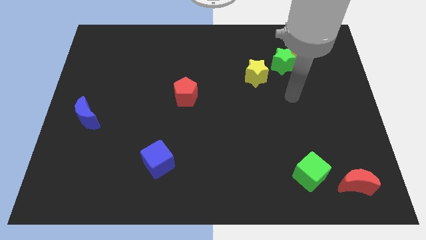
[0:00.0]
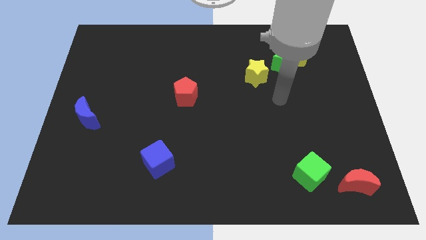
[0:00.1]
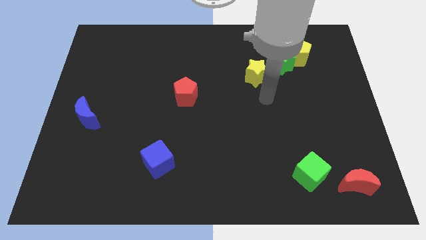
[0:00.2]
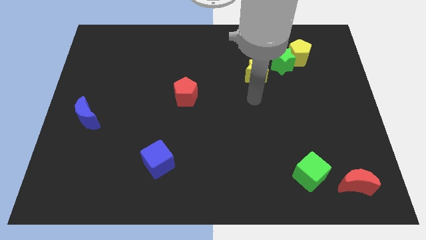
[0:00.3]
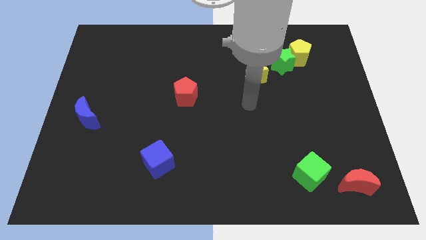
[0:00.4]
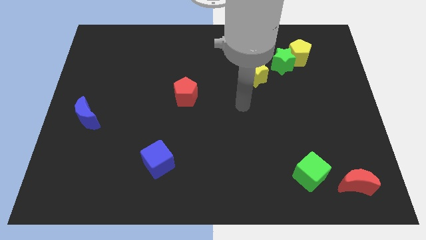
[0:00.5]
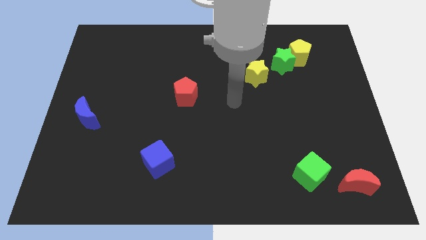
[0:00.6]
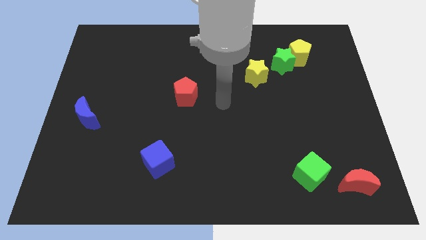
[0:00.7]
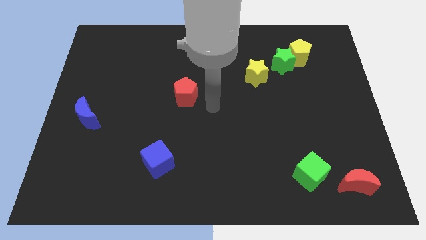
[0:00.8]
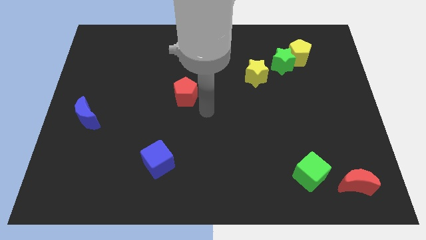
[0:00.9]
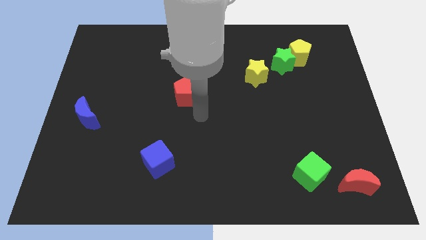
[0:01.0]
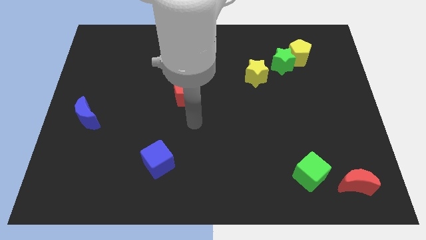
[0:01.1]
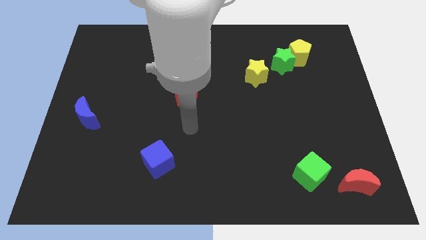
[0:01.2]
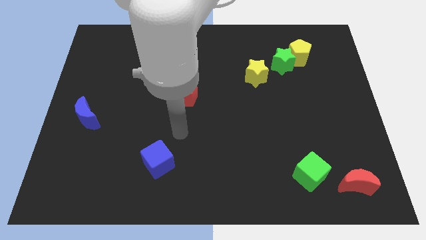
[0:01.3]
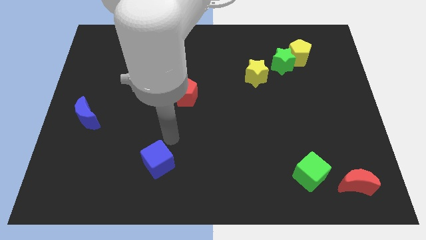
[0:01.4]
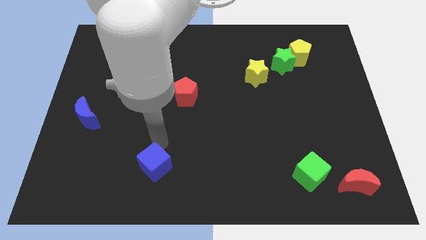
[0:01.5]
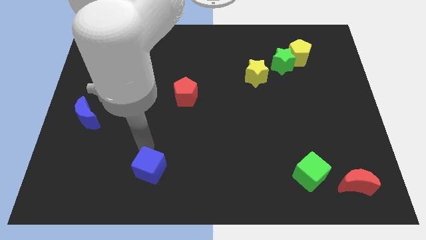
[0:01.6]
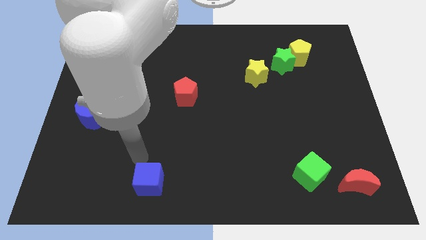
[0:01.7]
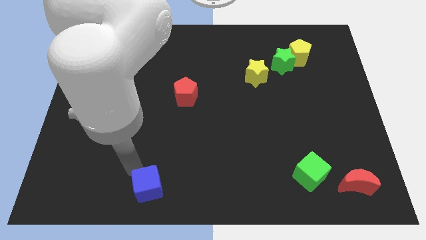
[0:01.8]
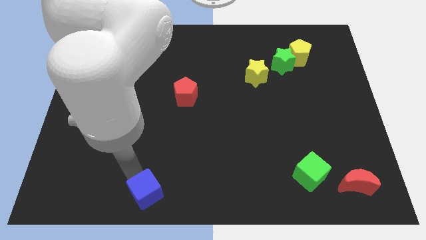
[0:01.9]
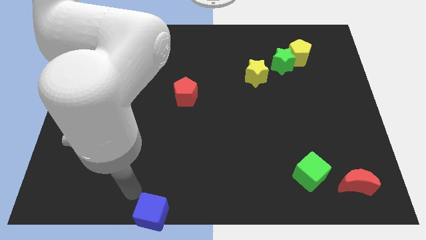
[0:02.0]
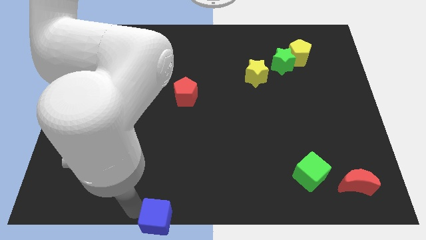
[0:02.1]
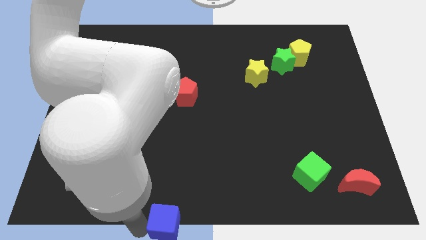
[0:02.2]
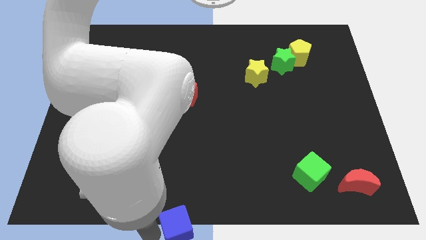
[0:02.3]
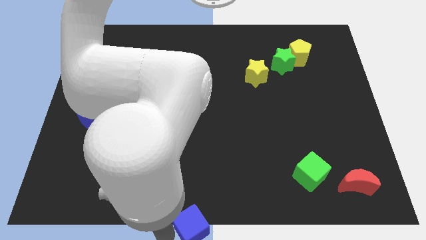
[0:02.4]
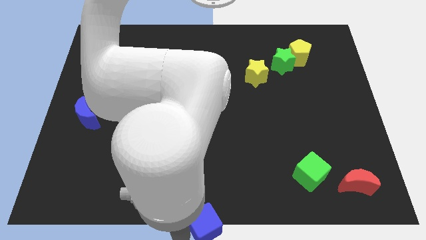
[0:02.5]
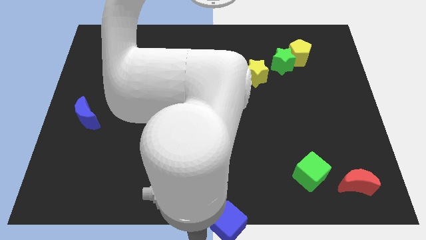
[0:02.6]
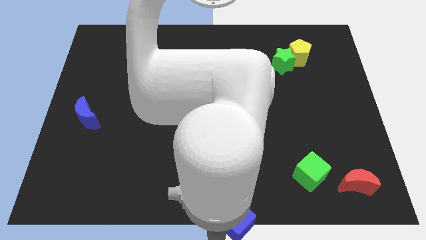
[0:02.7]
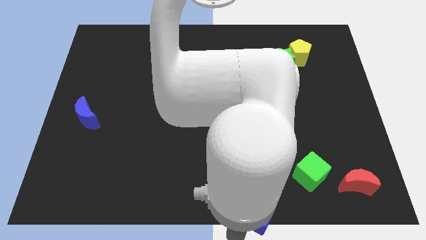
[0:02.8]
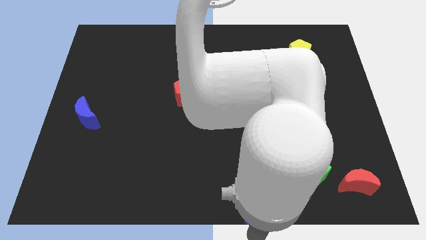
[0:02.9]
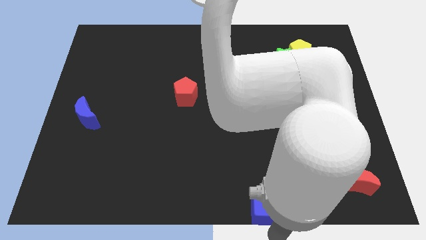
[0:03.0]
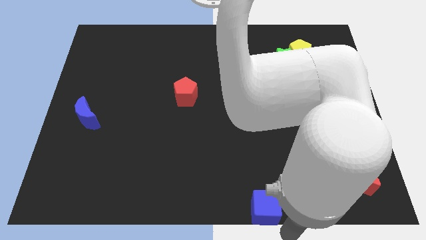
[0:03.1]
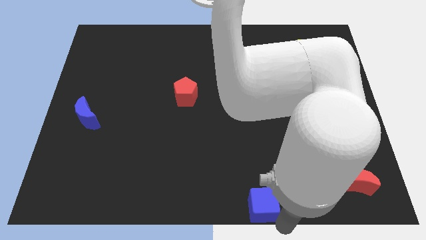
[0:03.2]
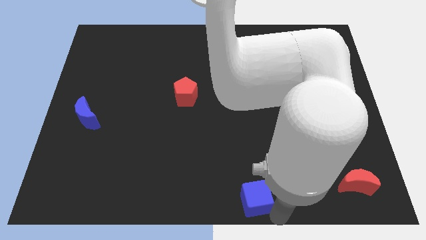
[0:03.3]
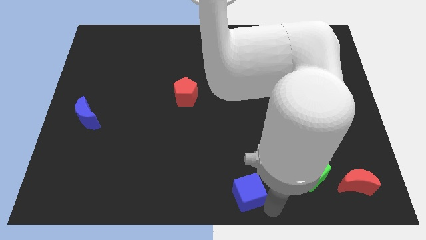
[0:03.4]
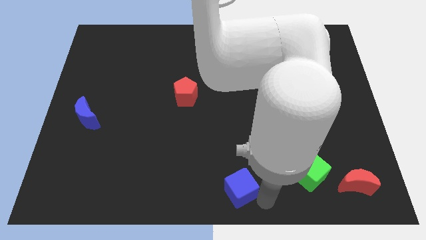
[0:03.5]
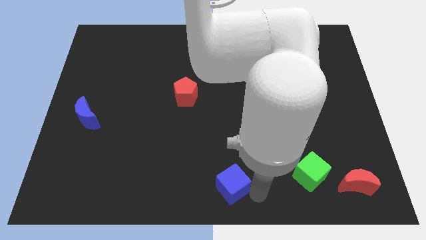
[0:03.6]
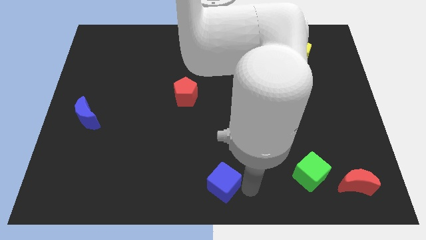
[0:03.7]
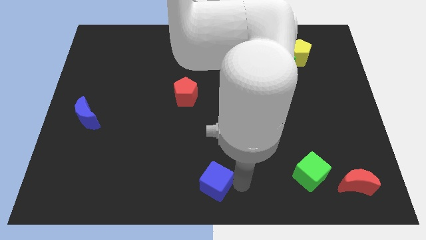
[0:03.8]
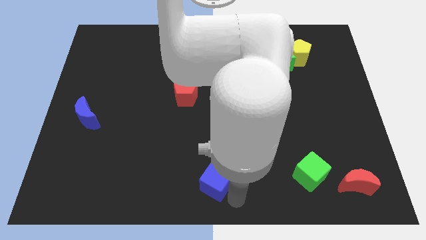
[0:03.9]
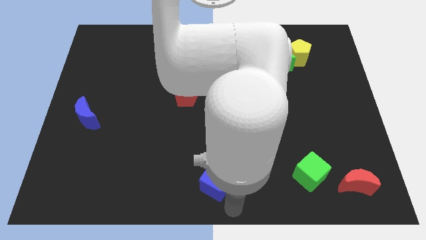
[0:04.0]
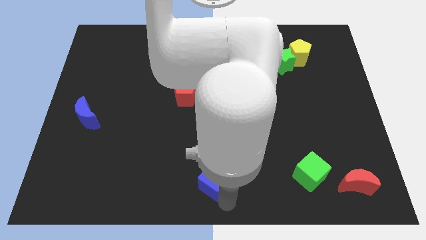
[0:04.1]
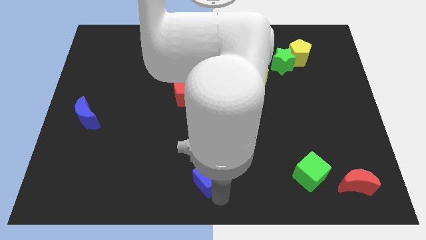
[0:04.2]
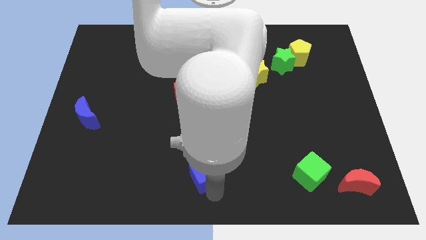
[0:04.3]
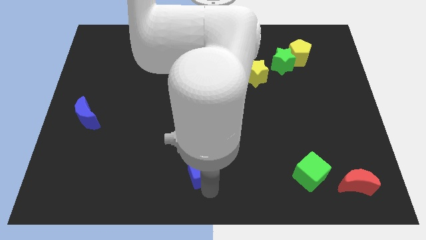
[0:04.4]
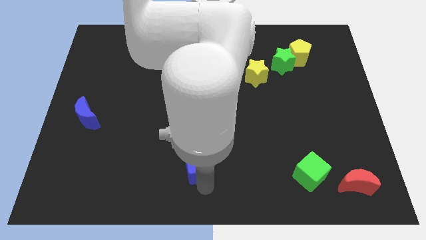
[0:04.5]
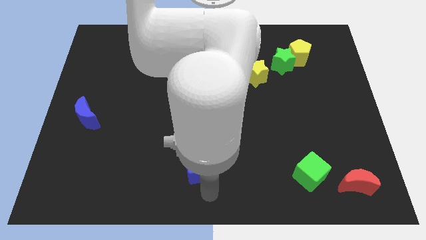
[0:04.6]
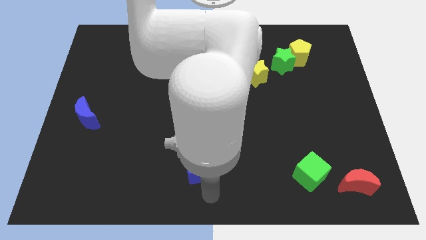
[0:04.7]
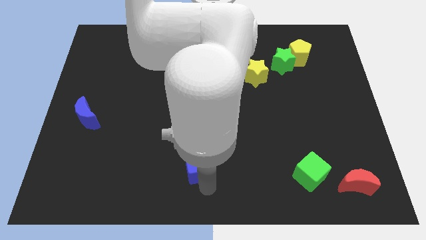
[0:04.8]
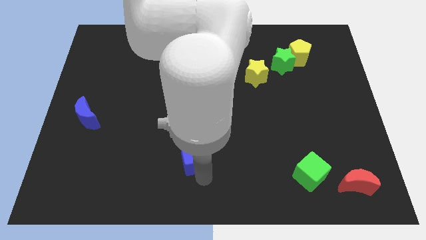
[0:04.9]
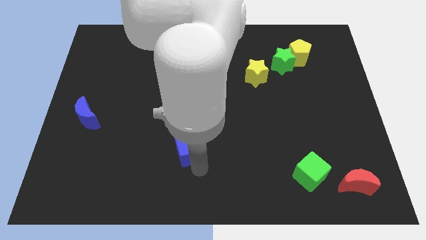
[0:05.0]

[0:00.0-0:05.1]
push the blue cube below the red pentagon

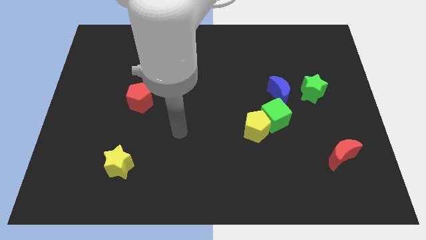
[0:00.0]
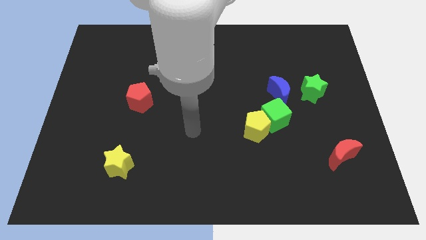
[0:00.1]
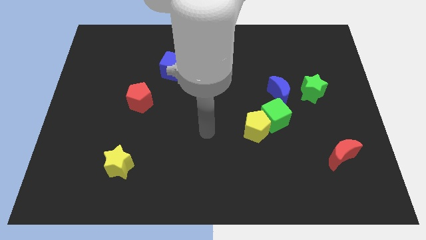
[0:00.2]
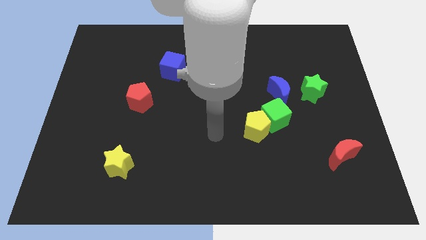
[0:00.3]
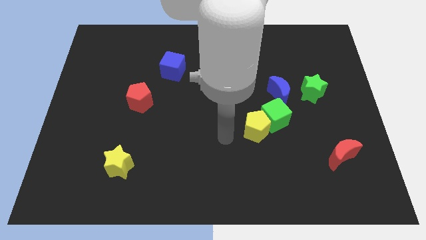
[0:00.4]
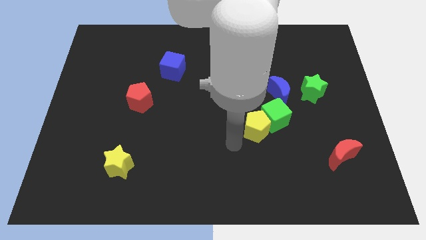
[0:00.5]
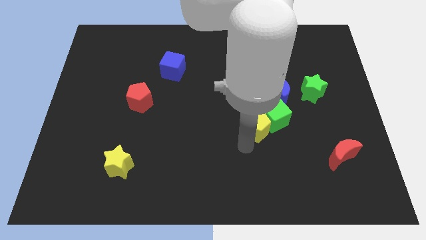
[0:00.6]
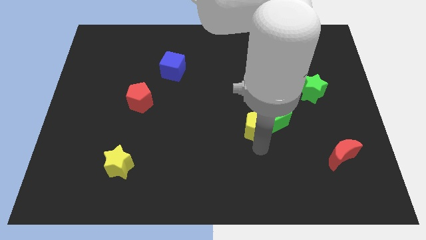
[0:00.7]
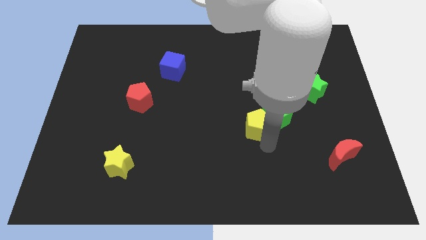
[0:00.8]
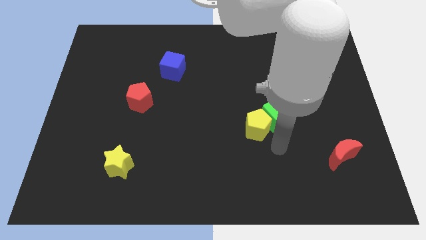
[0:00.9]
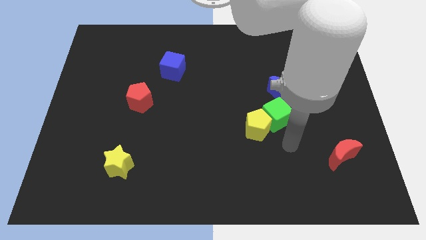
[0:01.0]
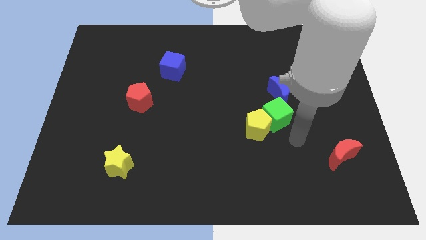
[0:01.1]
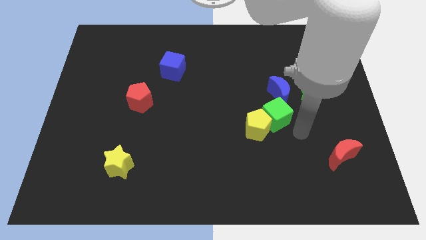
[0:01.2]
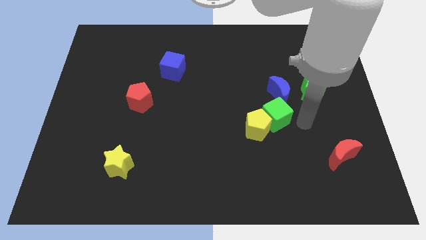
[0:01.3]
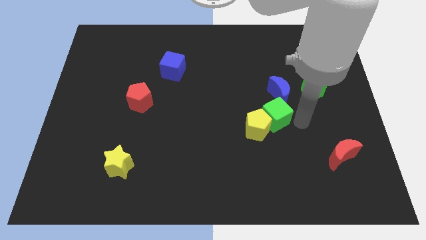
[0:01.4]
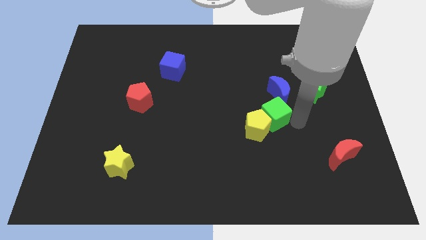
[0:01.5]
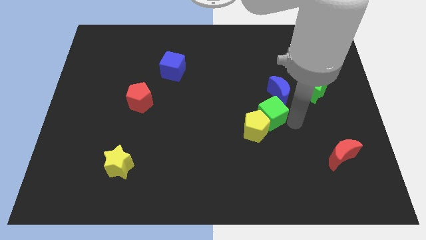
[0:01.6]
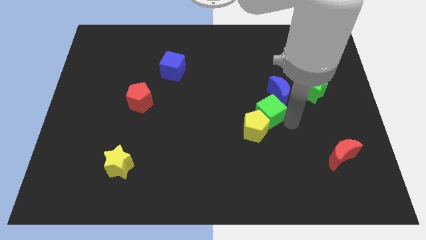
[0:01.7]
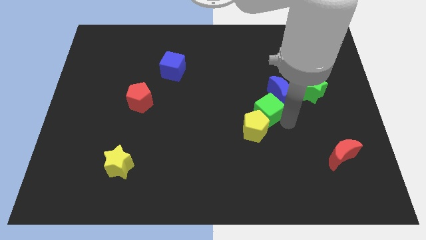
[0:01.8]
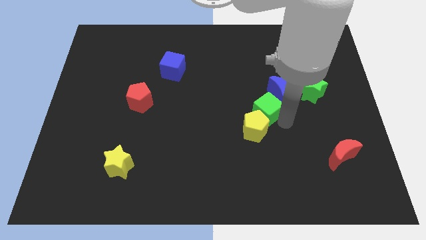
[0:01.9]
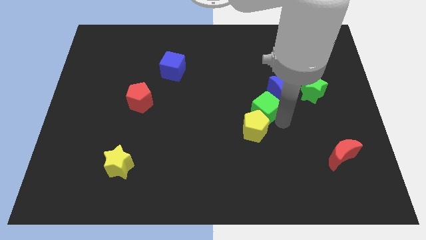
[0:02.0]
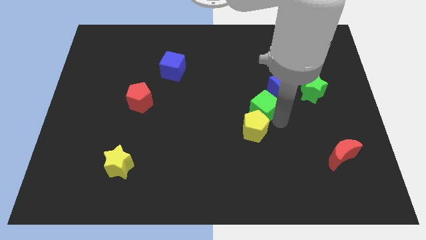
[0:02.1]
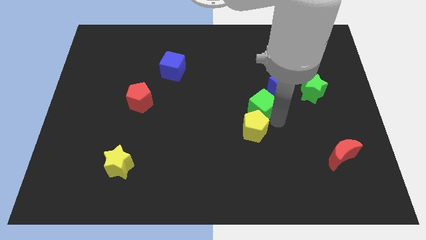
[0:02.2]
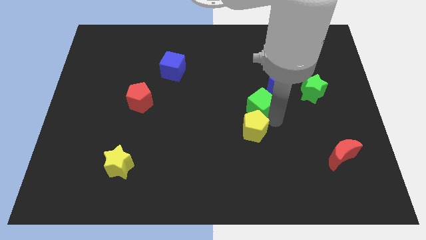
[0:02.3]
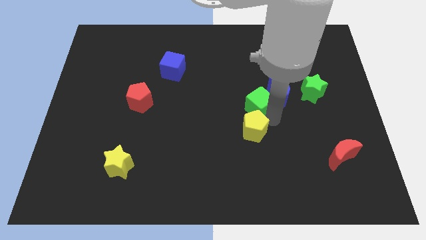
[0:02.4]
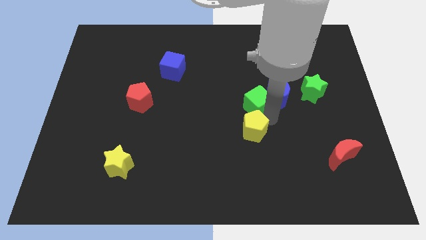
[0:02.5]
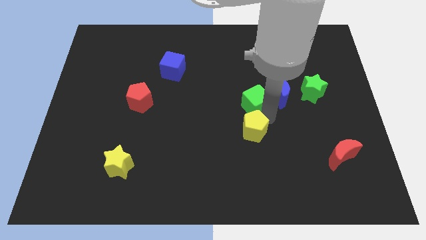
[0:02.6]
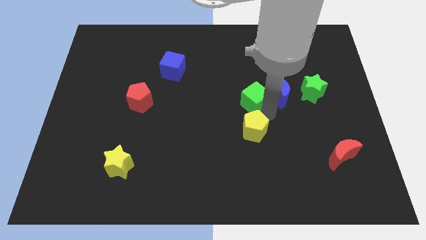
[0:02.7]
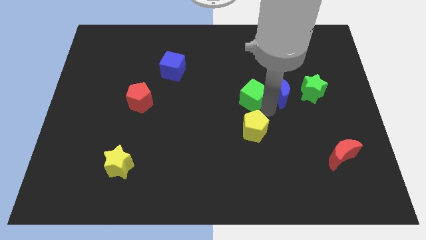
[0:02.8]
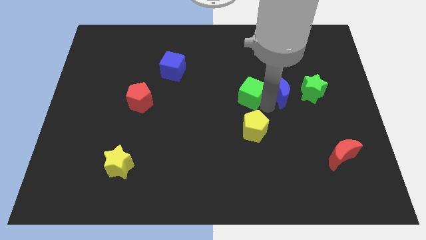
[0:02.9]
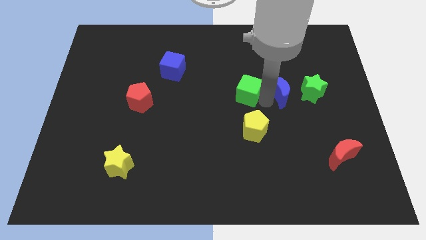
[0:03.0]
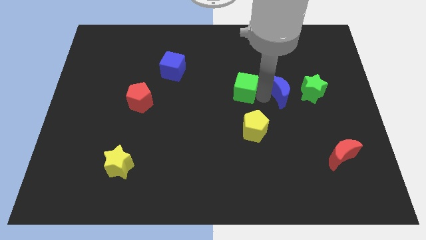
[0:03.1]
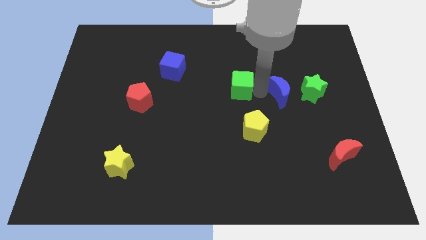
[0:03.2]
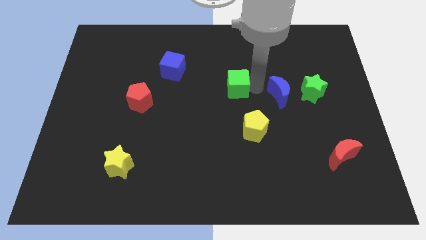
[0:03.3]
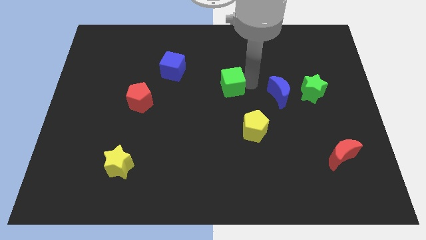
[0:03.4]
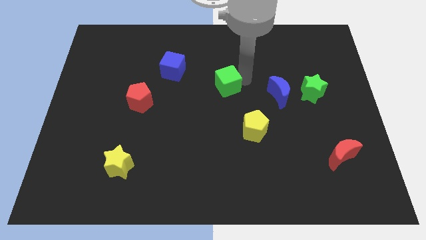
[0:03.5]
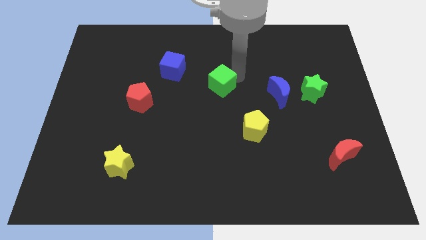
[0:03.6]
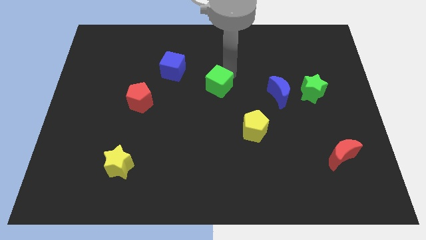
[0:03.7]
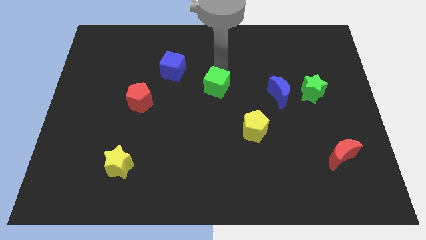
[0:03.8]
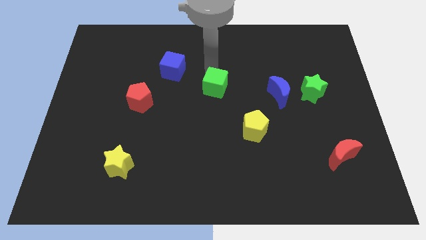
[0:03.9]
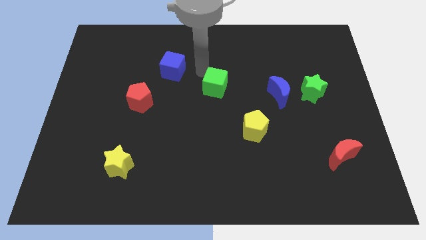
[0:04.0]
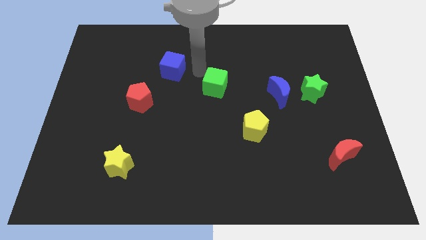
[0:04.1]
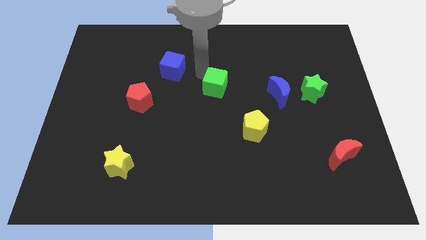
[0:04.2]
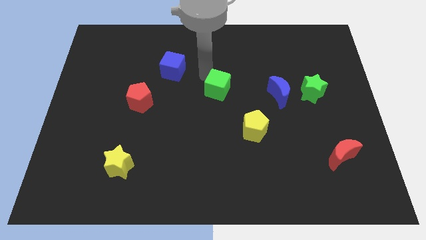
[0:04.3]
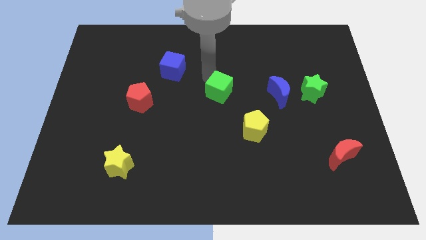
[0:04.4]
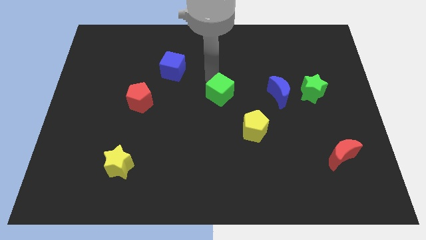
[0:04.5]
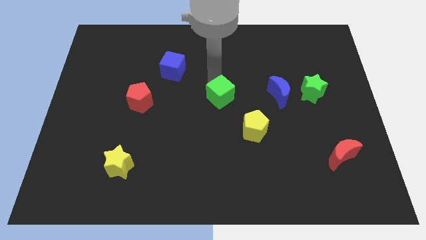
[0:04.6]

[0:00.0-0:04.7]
slide the green cube diagonally up and to the left of the yellow pentagon
